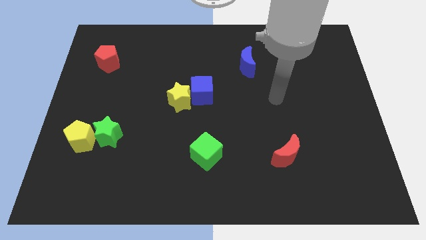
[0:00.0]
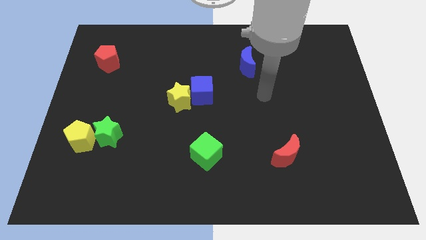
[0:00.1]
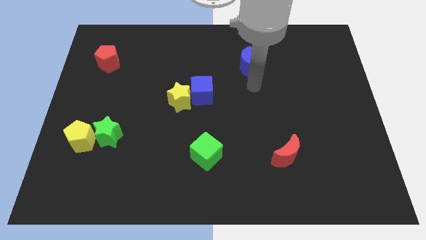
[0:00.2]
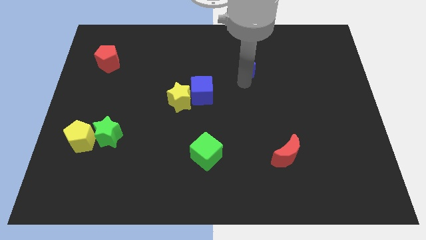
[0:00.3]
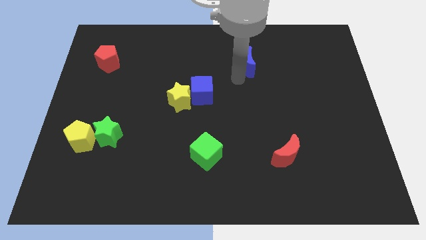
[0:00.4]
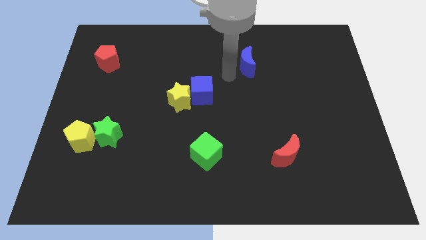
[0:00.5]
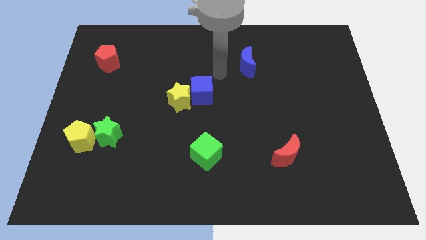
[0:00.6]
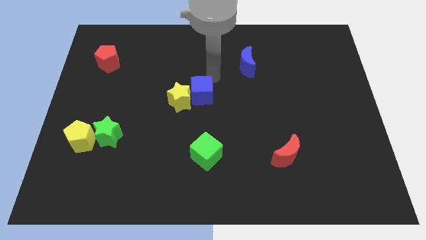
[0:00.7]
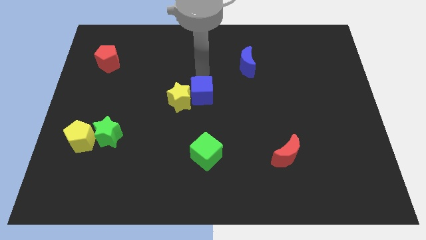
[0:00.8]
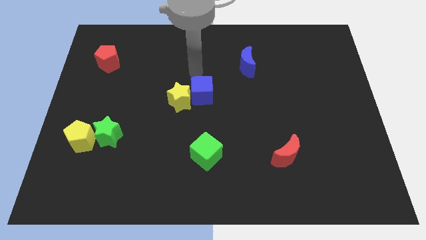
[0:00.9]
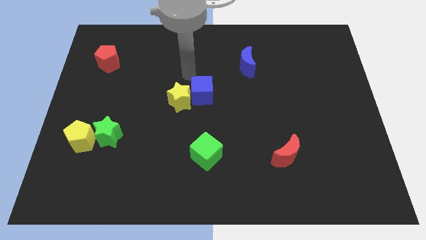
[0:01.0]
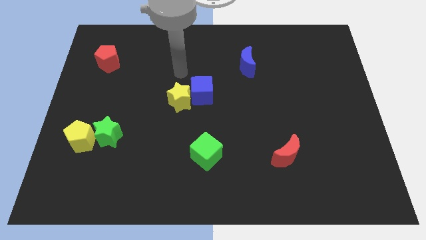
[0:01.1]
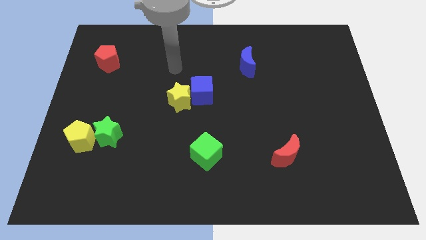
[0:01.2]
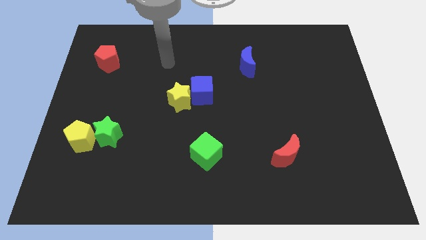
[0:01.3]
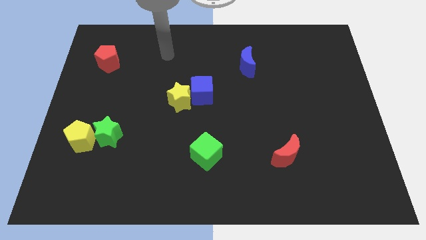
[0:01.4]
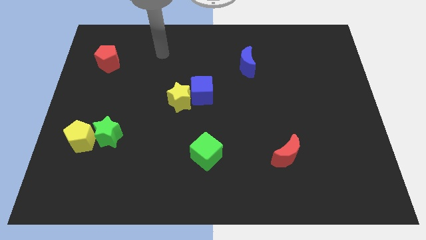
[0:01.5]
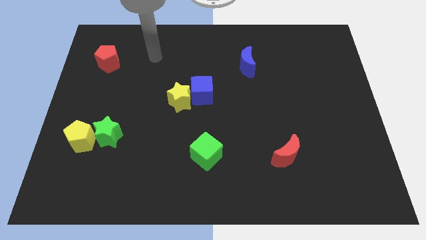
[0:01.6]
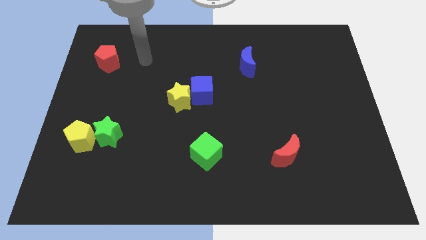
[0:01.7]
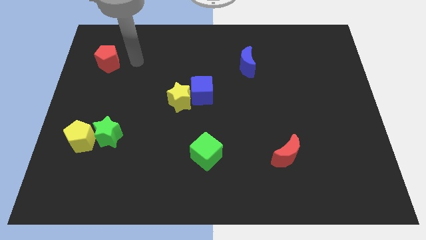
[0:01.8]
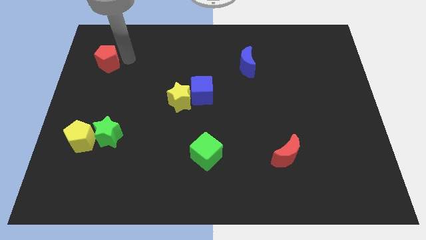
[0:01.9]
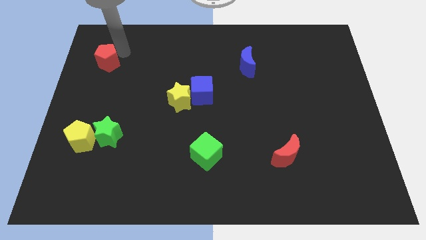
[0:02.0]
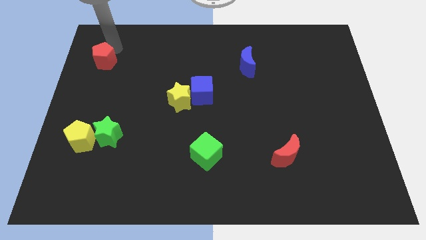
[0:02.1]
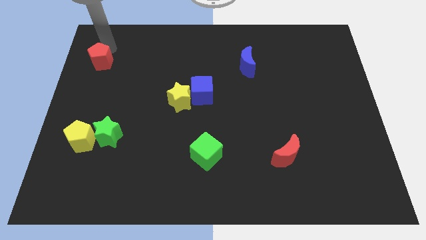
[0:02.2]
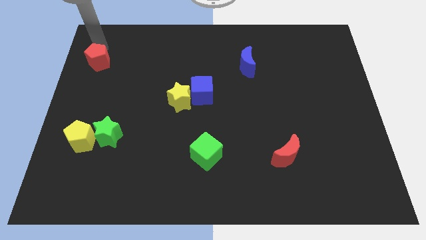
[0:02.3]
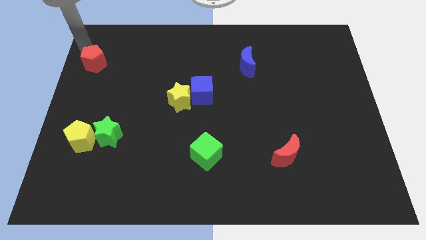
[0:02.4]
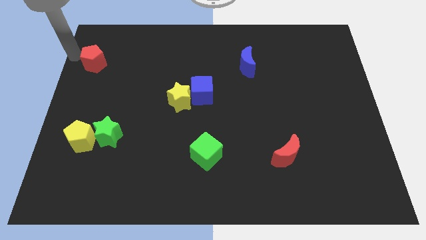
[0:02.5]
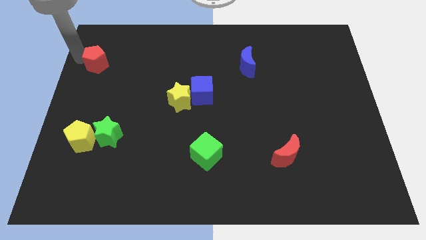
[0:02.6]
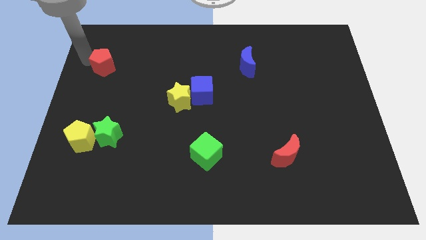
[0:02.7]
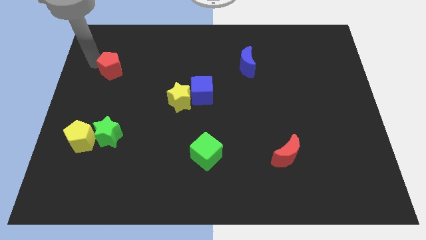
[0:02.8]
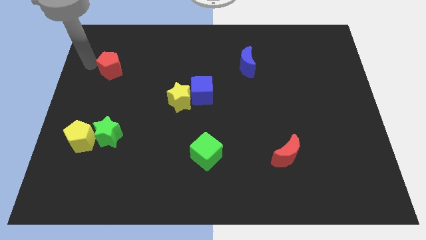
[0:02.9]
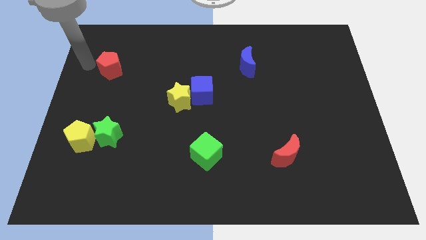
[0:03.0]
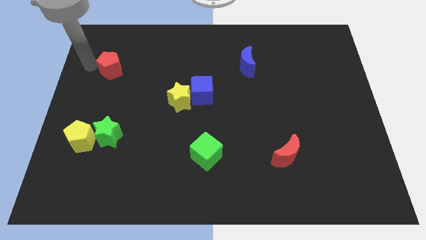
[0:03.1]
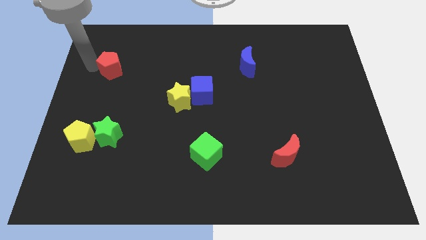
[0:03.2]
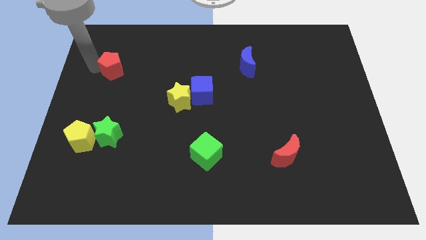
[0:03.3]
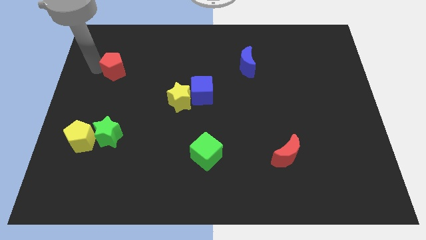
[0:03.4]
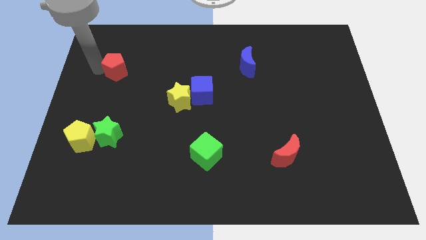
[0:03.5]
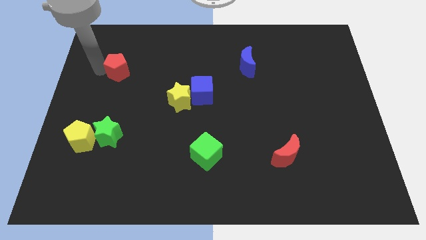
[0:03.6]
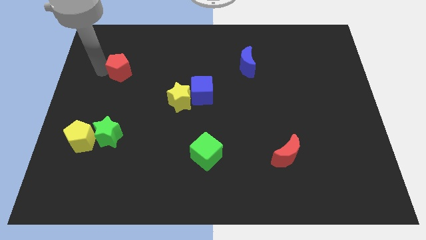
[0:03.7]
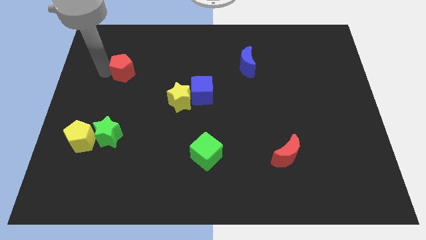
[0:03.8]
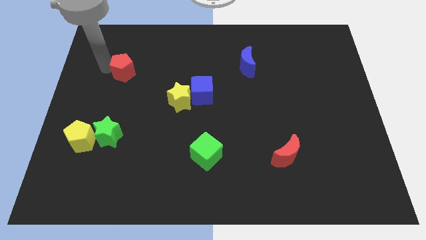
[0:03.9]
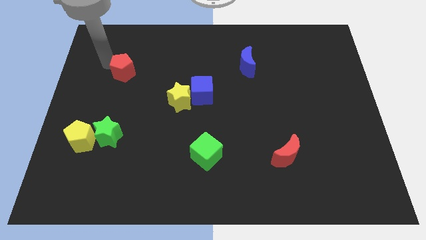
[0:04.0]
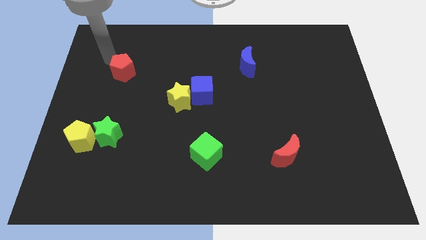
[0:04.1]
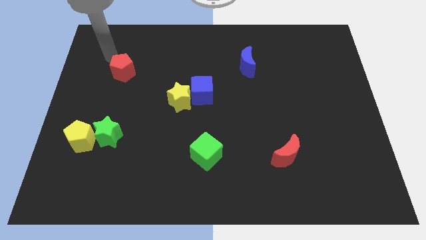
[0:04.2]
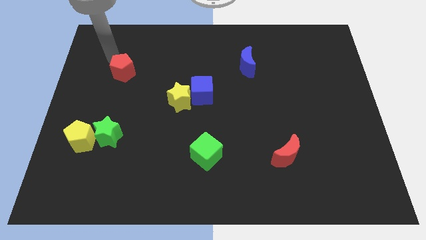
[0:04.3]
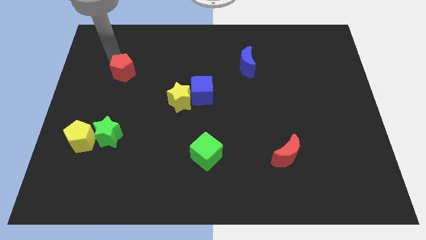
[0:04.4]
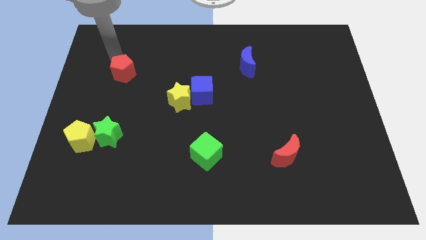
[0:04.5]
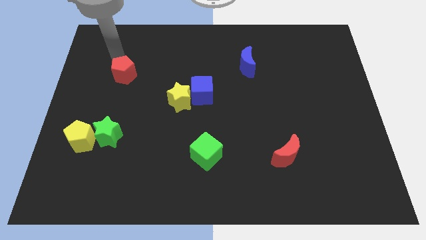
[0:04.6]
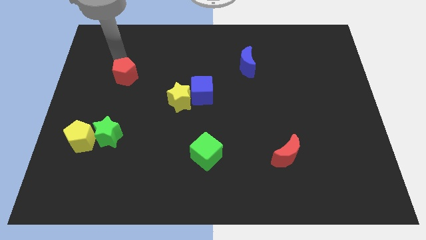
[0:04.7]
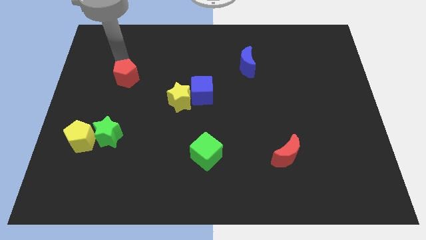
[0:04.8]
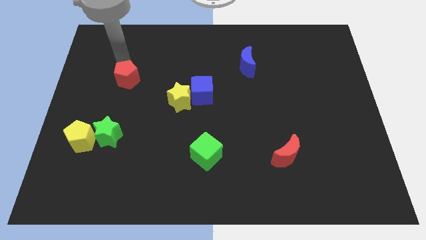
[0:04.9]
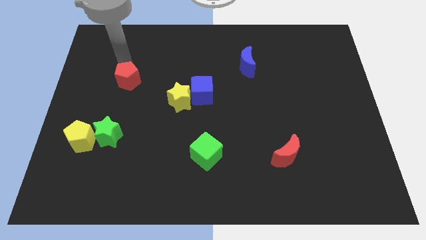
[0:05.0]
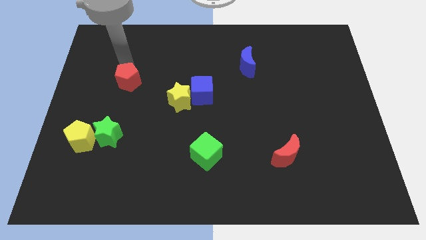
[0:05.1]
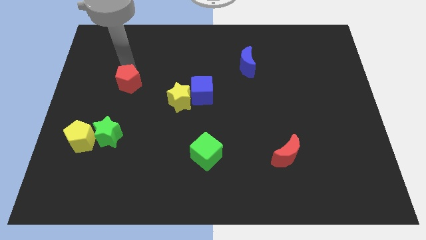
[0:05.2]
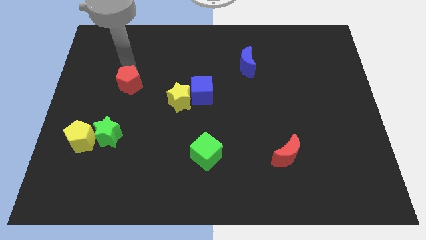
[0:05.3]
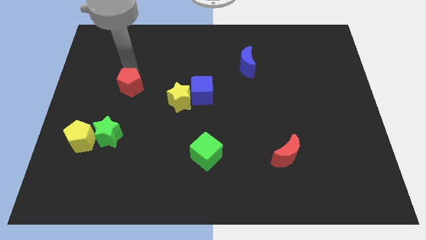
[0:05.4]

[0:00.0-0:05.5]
put the red pentagon left of the yellow star

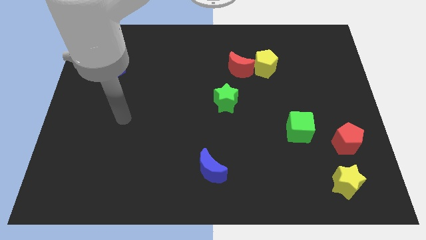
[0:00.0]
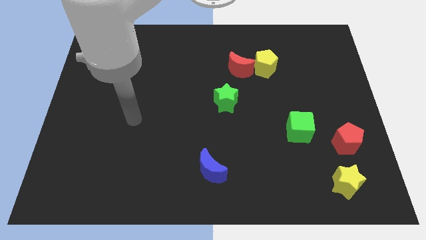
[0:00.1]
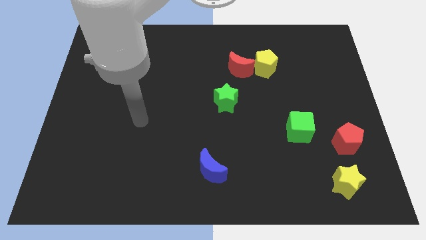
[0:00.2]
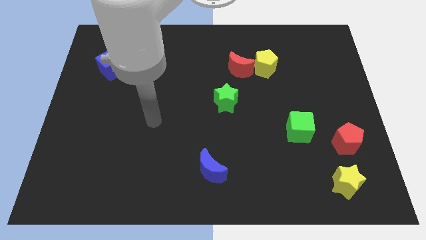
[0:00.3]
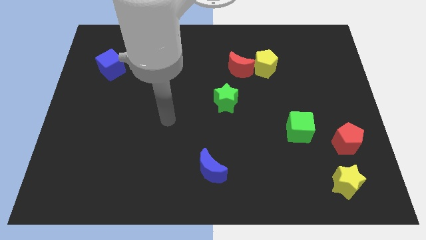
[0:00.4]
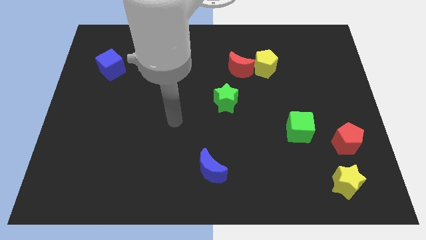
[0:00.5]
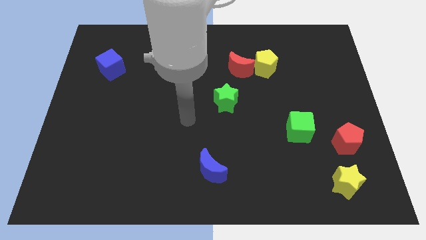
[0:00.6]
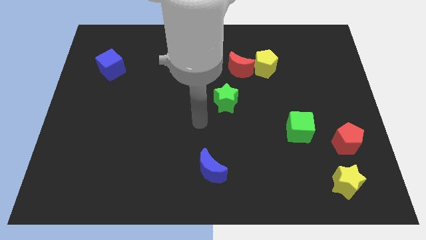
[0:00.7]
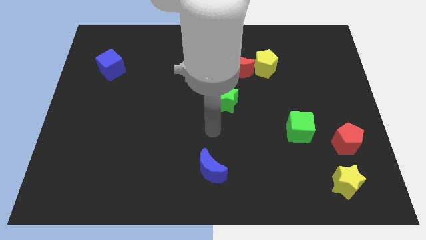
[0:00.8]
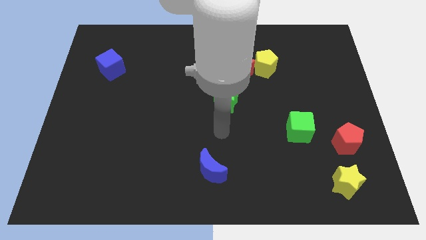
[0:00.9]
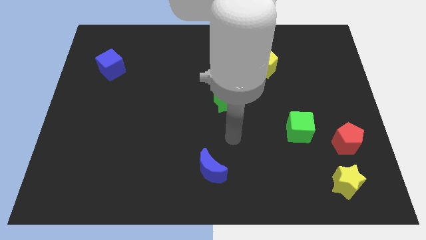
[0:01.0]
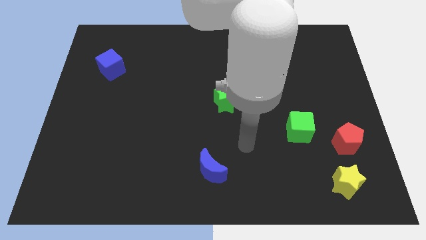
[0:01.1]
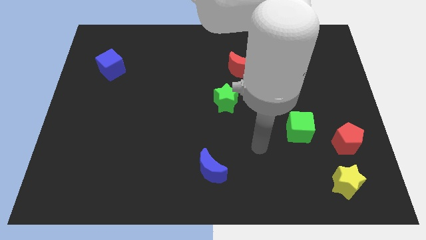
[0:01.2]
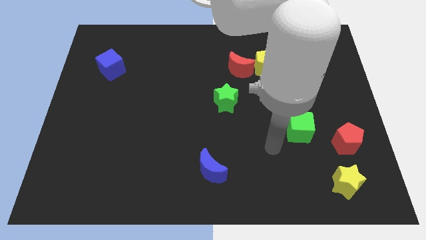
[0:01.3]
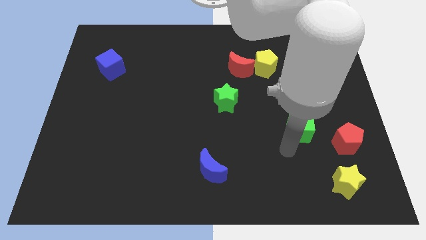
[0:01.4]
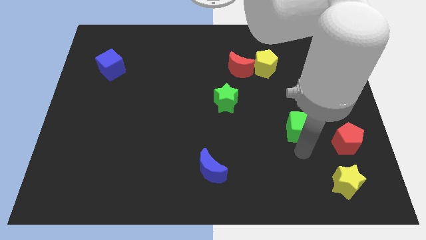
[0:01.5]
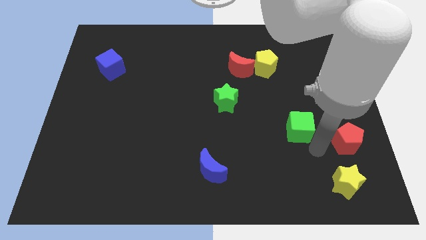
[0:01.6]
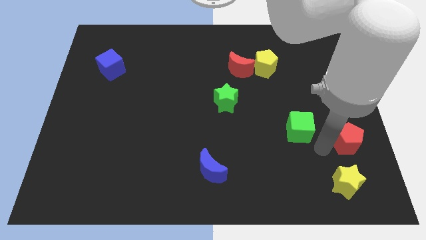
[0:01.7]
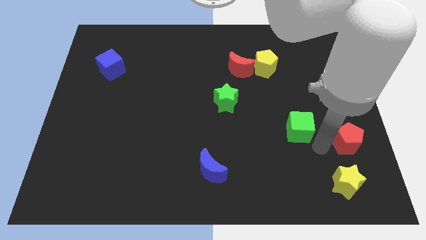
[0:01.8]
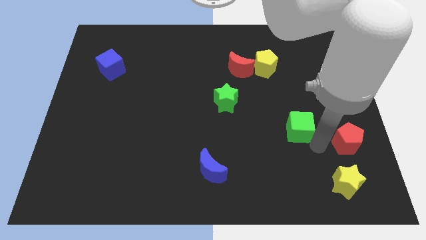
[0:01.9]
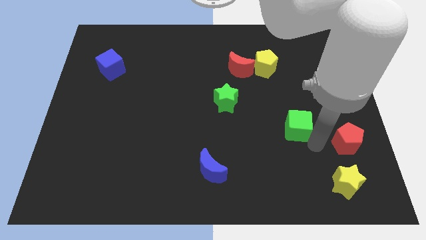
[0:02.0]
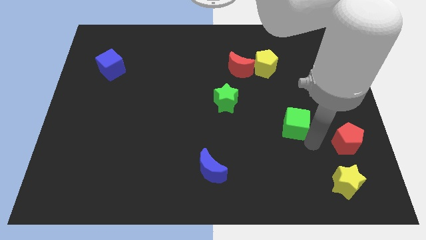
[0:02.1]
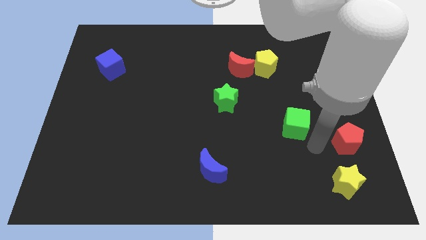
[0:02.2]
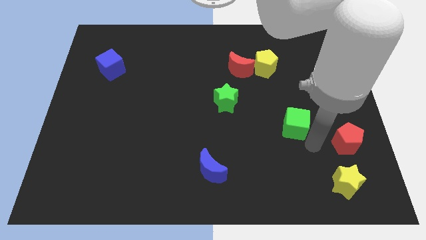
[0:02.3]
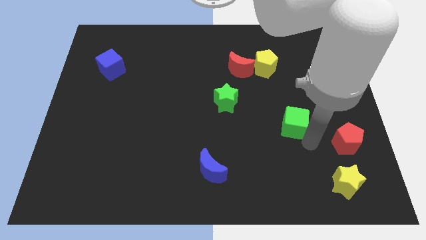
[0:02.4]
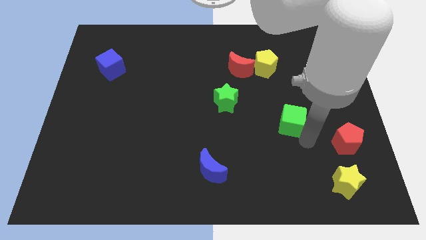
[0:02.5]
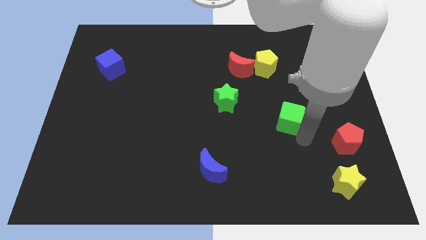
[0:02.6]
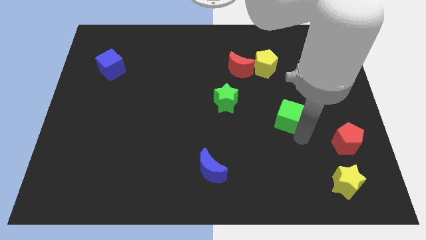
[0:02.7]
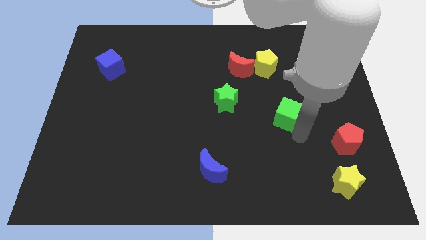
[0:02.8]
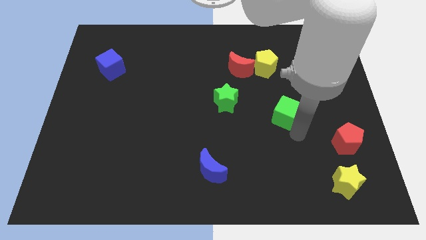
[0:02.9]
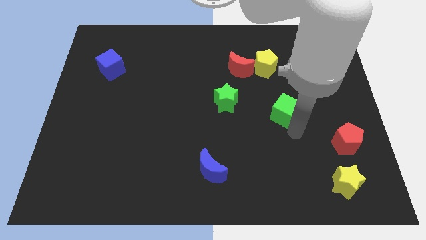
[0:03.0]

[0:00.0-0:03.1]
push the green cube to the bottom side of the yellow pentagon
